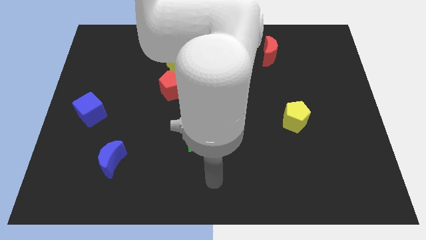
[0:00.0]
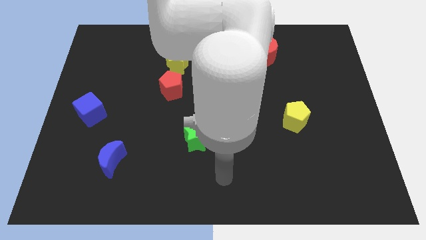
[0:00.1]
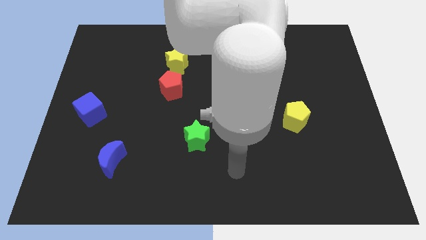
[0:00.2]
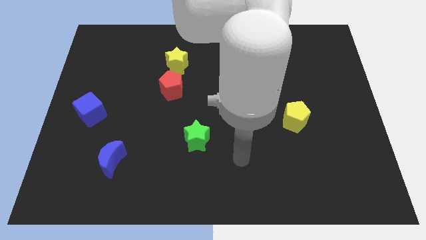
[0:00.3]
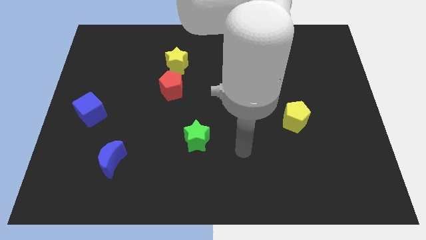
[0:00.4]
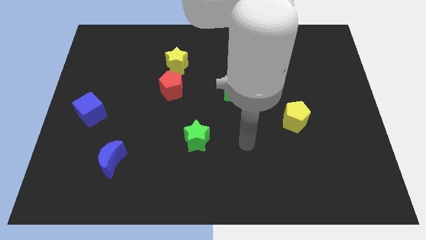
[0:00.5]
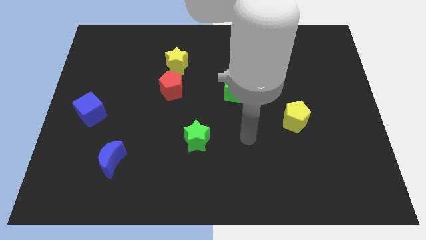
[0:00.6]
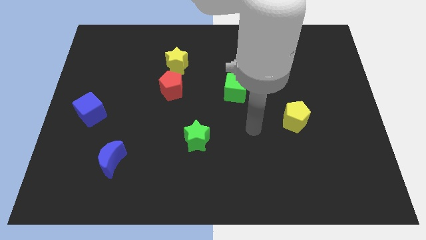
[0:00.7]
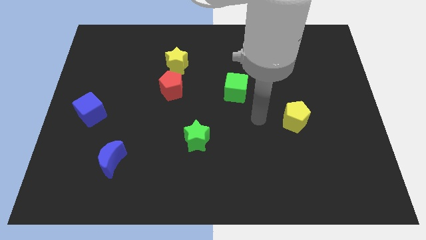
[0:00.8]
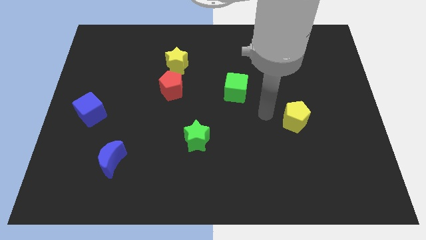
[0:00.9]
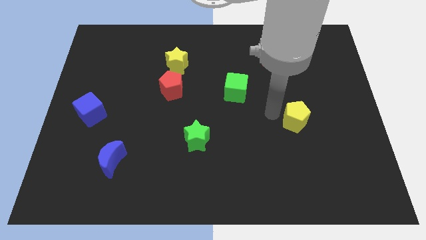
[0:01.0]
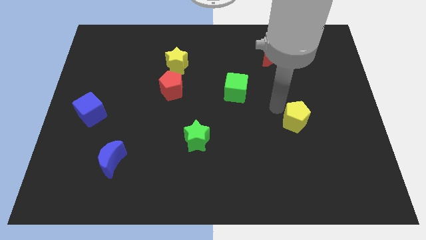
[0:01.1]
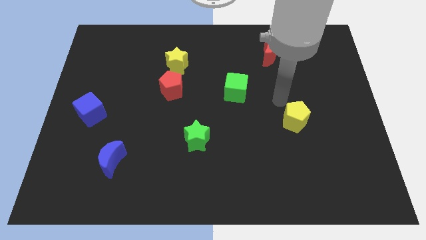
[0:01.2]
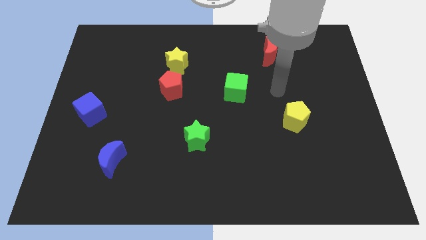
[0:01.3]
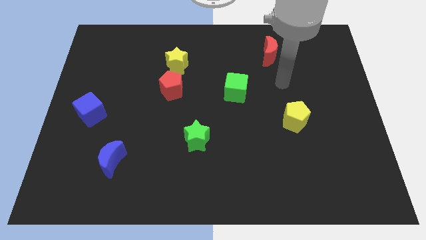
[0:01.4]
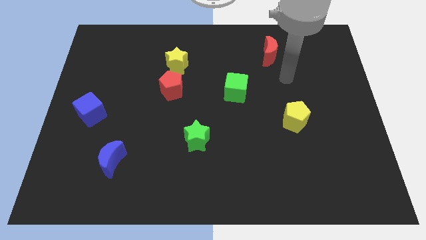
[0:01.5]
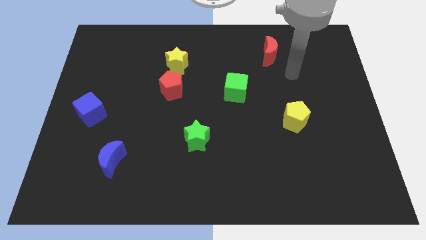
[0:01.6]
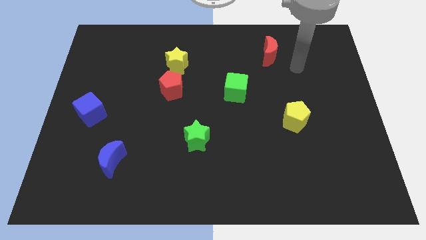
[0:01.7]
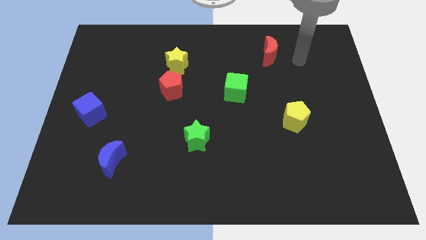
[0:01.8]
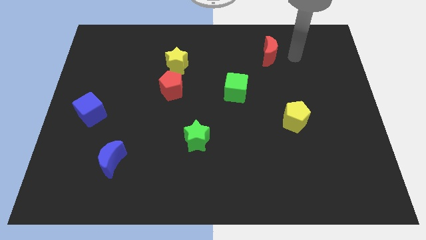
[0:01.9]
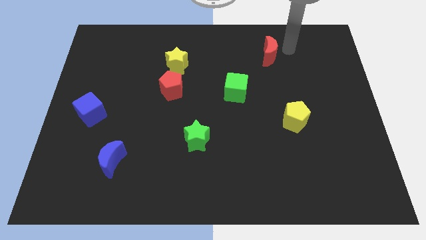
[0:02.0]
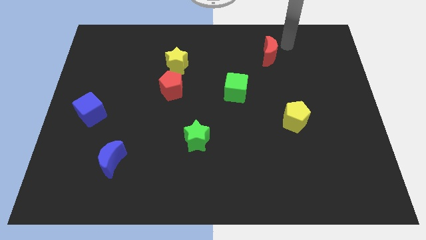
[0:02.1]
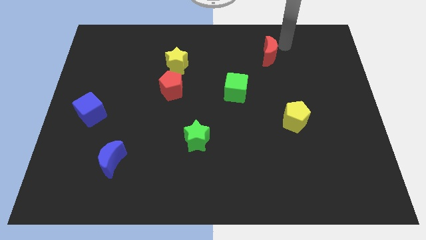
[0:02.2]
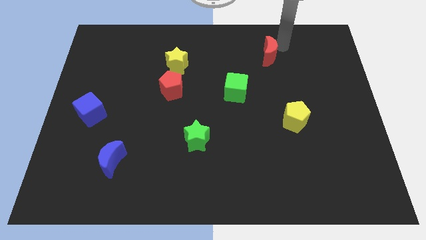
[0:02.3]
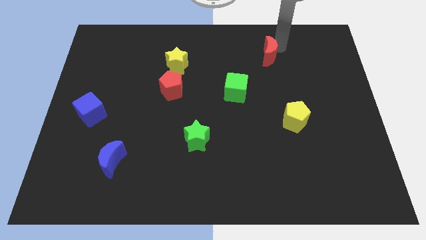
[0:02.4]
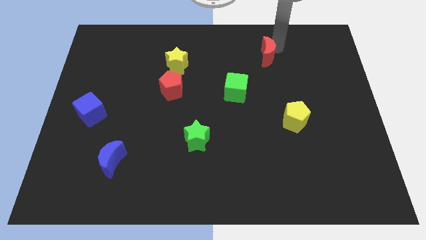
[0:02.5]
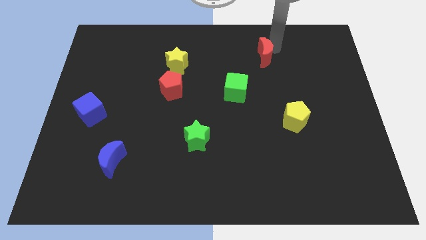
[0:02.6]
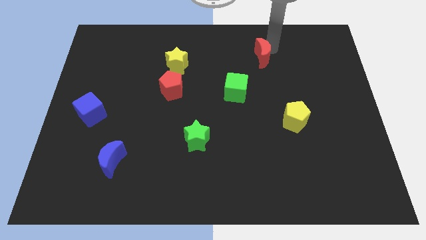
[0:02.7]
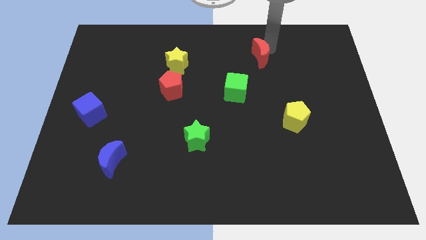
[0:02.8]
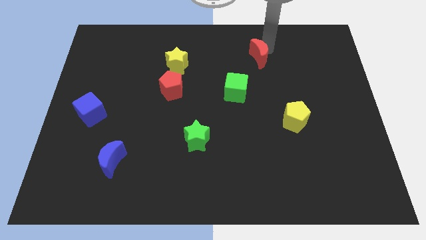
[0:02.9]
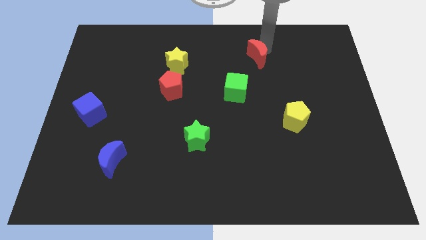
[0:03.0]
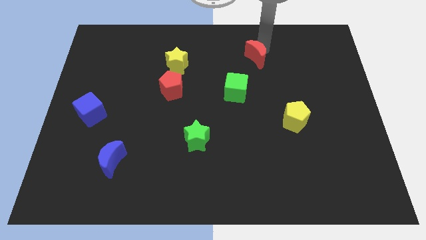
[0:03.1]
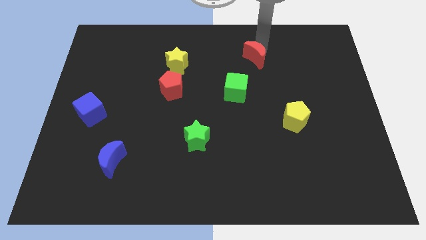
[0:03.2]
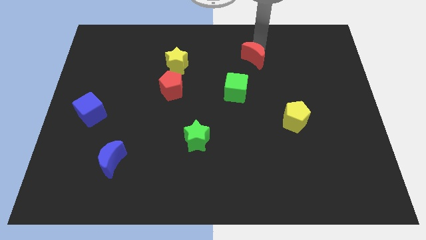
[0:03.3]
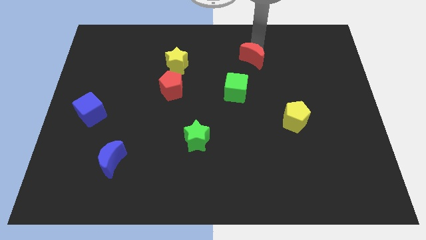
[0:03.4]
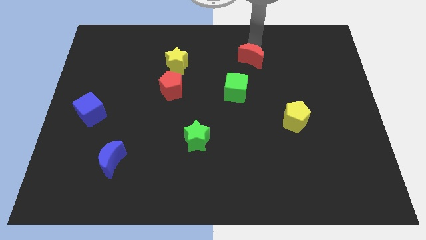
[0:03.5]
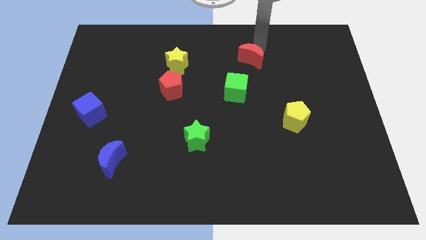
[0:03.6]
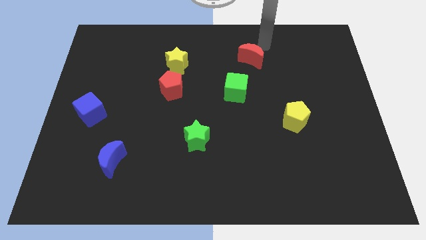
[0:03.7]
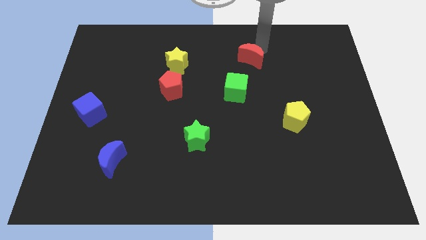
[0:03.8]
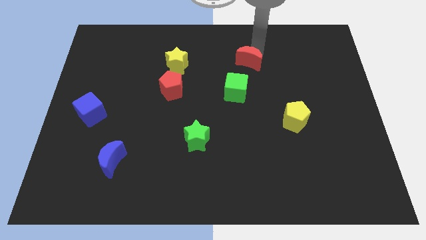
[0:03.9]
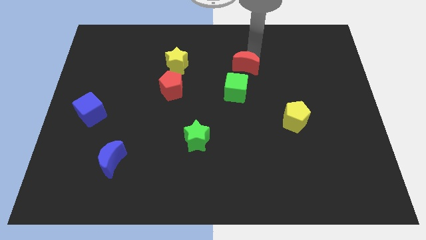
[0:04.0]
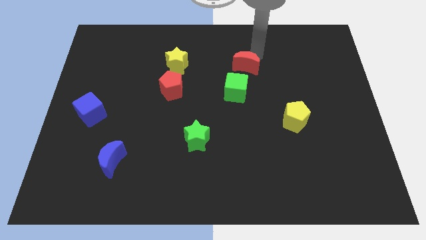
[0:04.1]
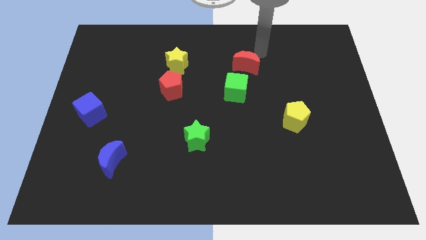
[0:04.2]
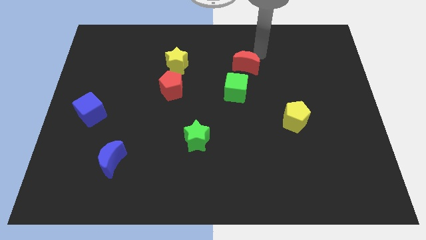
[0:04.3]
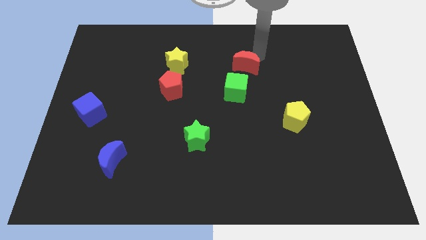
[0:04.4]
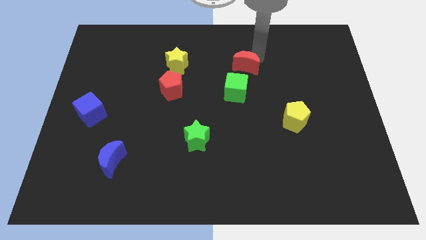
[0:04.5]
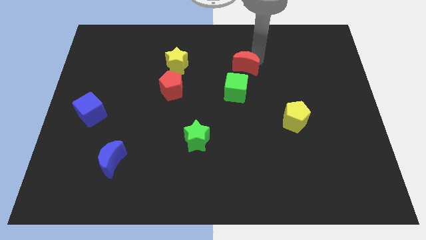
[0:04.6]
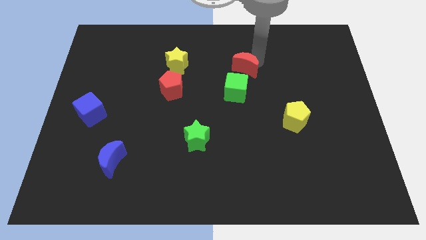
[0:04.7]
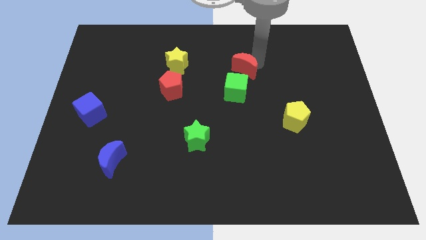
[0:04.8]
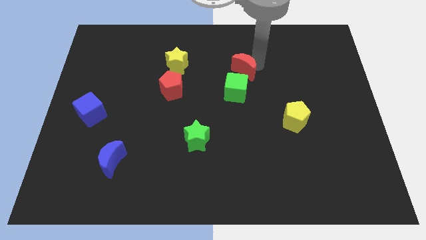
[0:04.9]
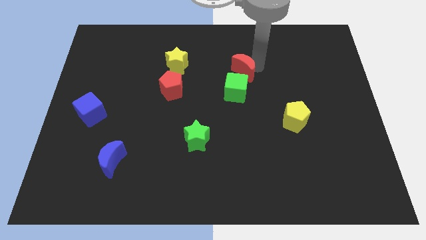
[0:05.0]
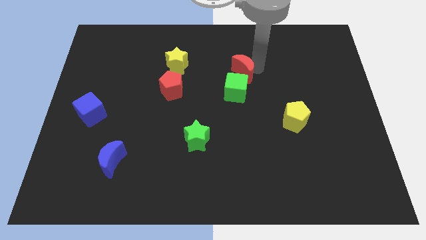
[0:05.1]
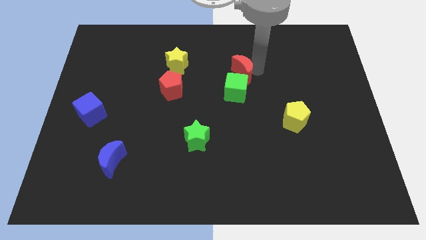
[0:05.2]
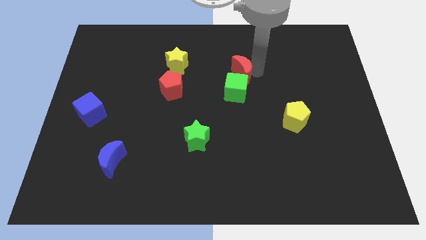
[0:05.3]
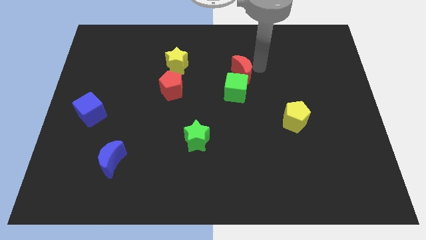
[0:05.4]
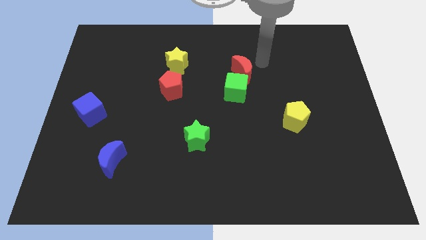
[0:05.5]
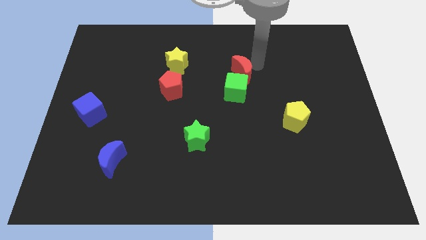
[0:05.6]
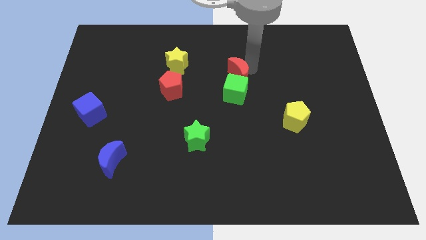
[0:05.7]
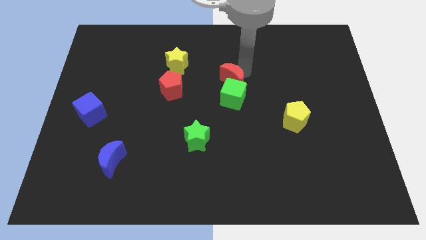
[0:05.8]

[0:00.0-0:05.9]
push the red moon just right of the red pentagon

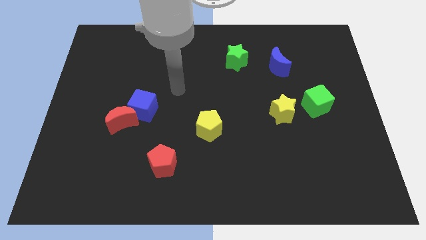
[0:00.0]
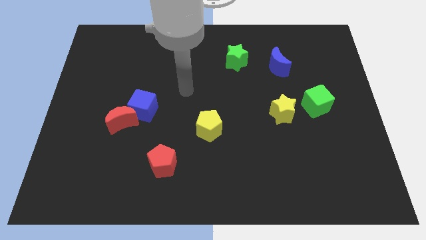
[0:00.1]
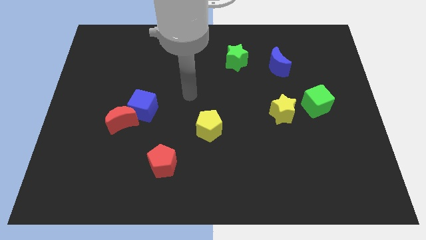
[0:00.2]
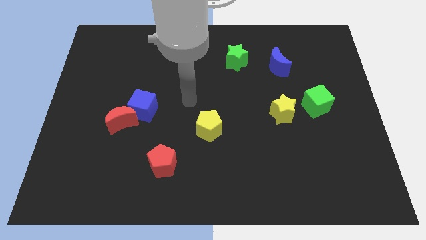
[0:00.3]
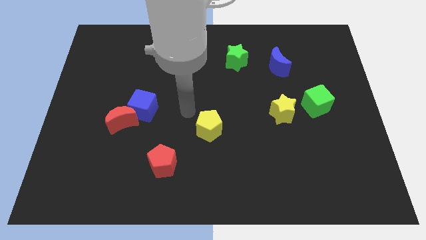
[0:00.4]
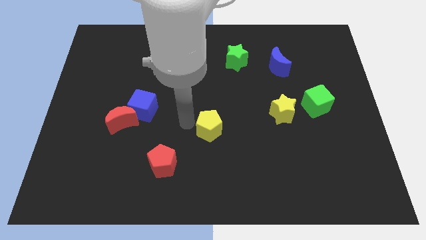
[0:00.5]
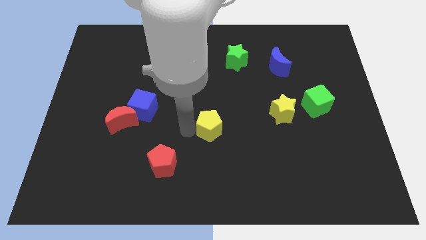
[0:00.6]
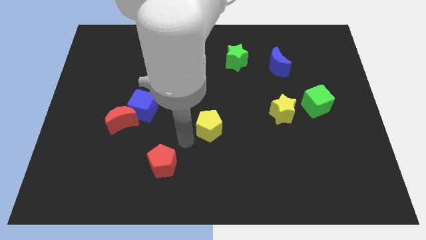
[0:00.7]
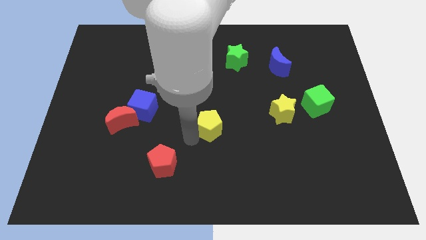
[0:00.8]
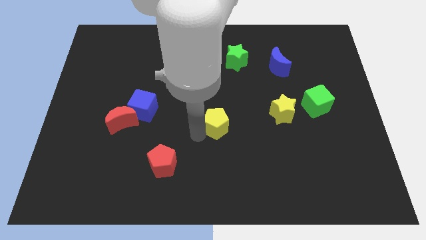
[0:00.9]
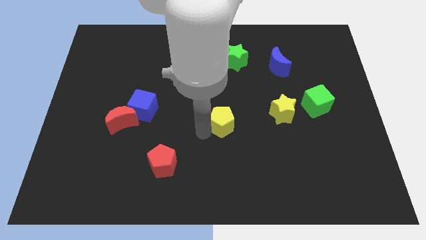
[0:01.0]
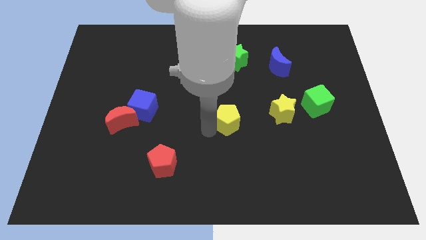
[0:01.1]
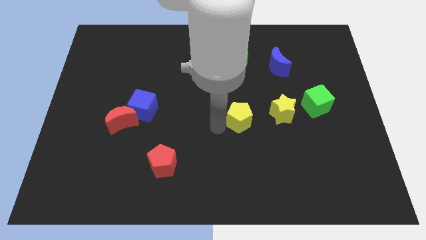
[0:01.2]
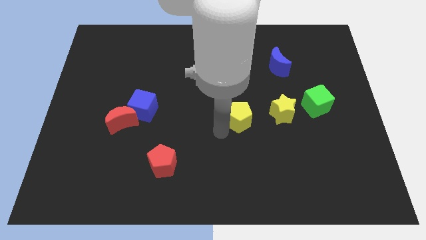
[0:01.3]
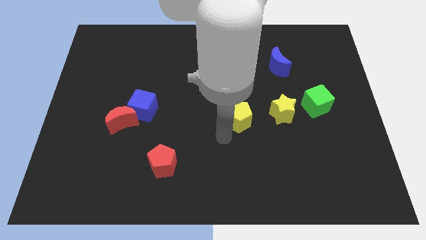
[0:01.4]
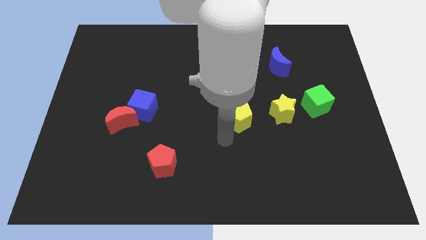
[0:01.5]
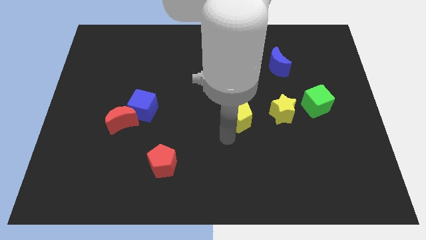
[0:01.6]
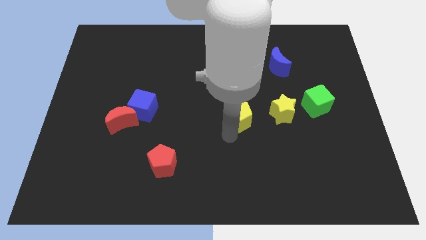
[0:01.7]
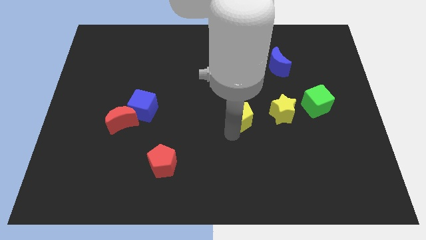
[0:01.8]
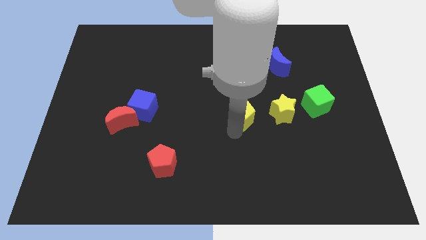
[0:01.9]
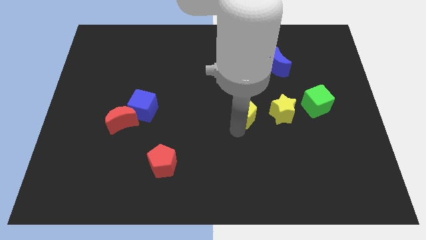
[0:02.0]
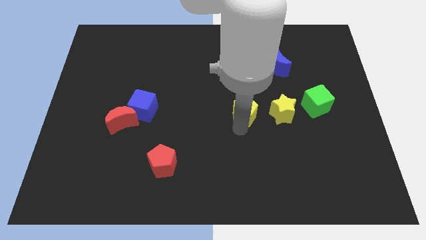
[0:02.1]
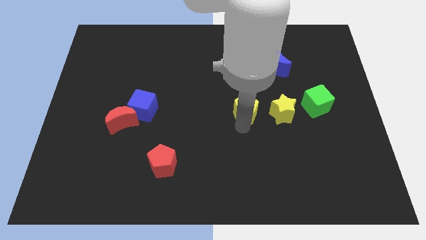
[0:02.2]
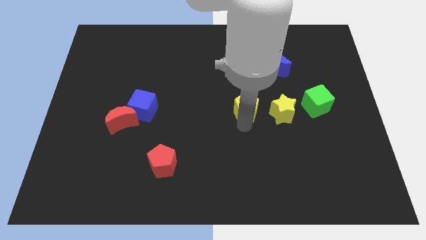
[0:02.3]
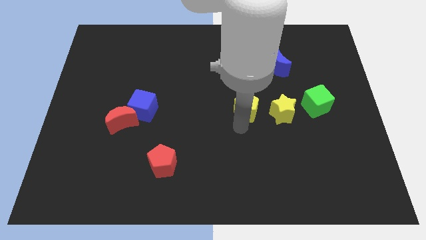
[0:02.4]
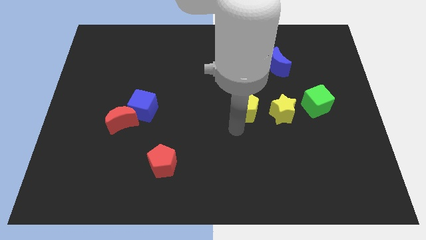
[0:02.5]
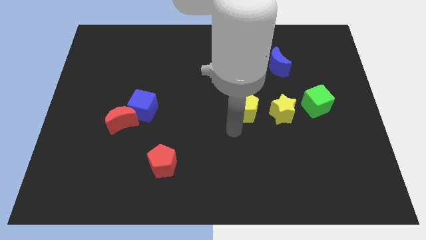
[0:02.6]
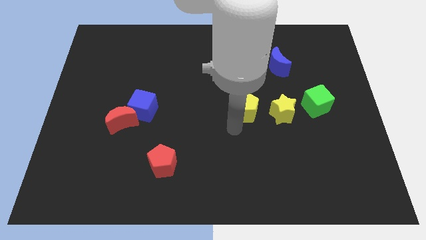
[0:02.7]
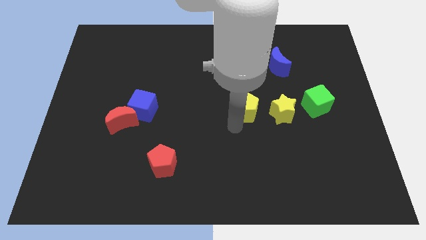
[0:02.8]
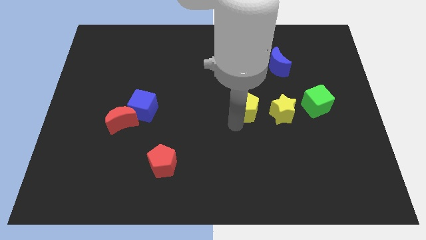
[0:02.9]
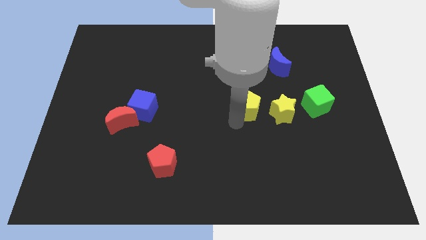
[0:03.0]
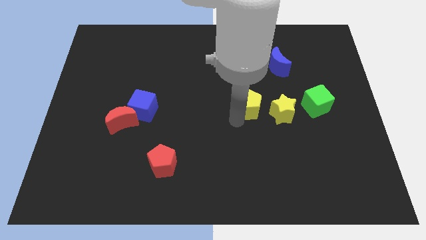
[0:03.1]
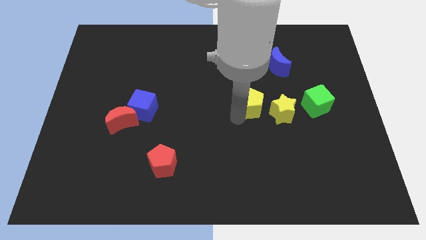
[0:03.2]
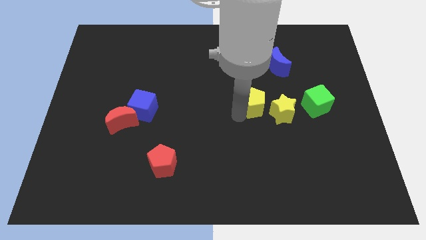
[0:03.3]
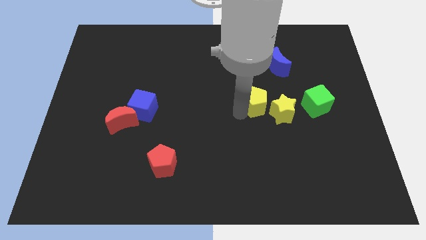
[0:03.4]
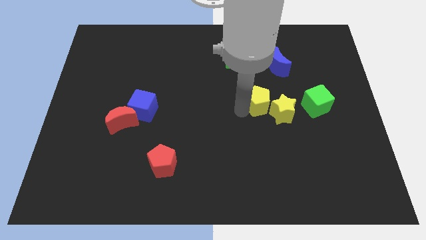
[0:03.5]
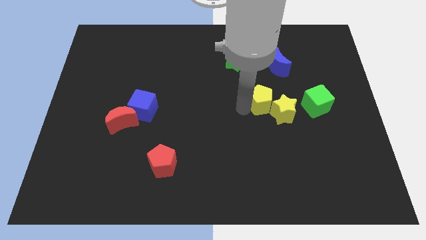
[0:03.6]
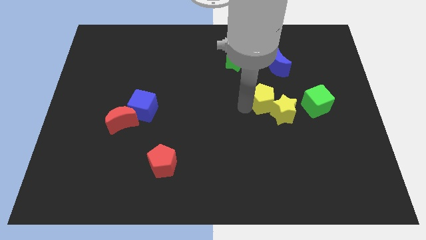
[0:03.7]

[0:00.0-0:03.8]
push the yellow pentagon to the top side of the yellow star
